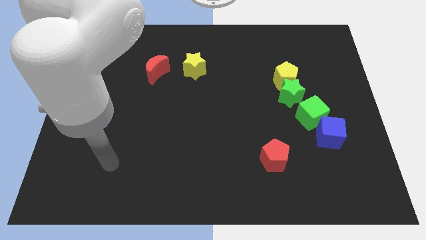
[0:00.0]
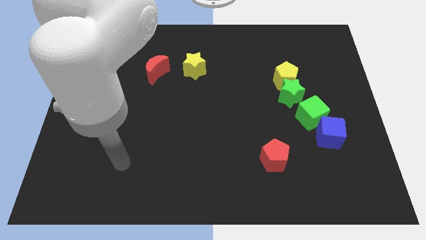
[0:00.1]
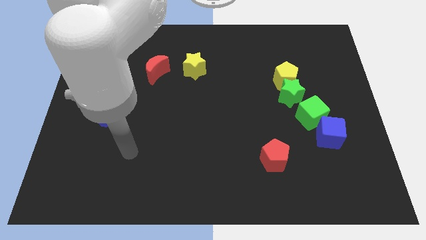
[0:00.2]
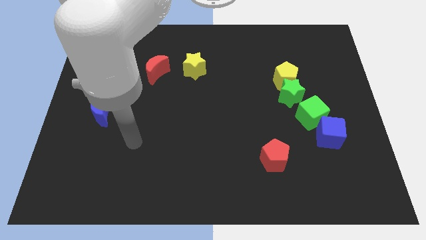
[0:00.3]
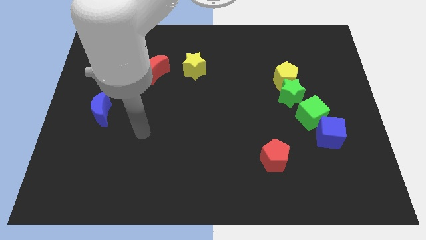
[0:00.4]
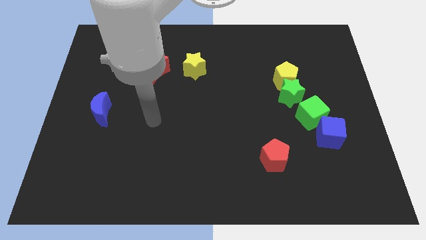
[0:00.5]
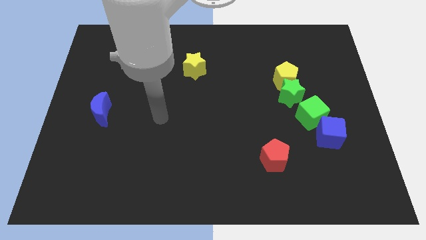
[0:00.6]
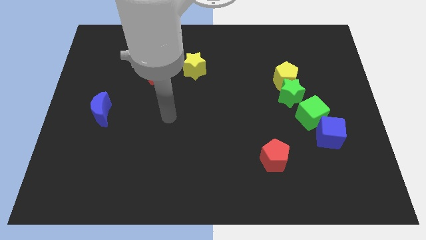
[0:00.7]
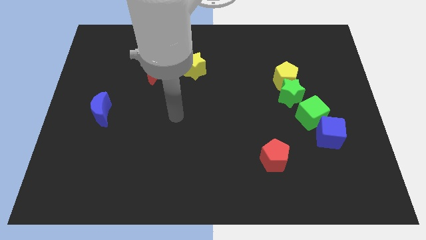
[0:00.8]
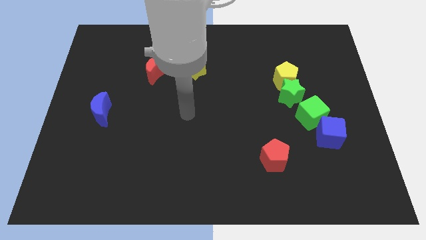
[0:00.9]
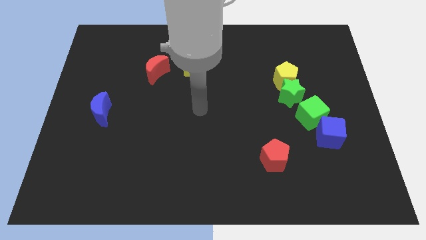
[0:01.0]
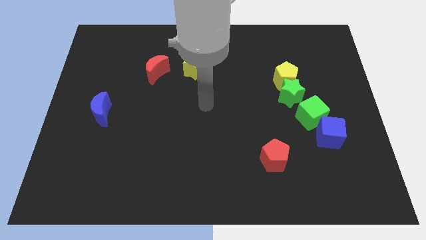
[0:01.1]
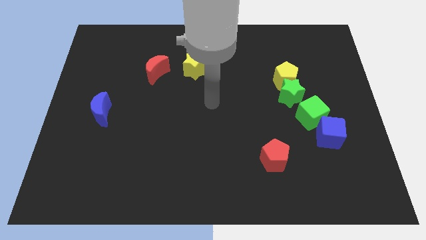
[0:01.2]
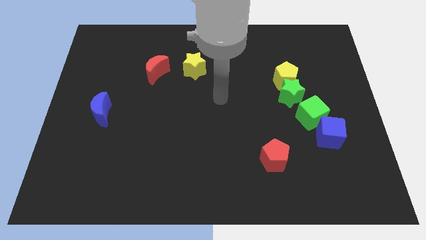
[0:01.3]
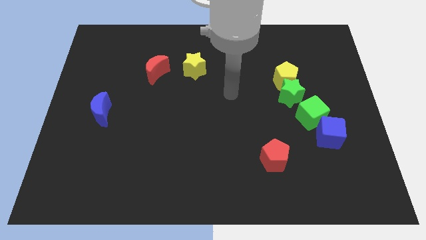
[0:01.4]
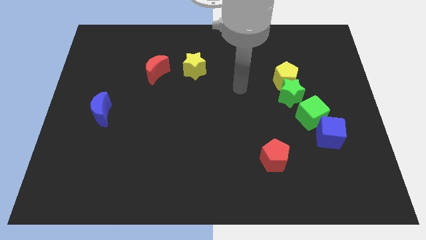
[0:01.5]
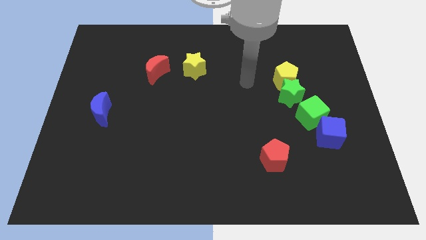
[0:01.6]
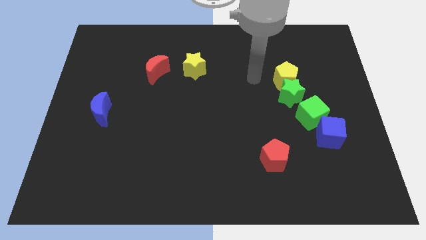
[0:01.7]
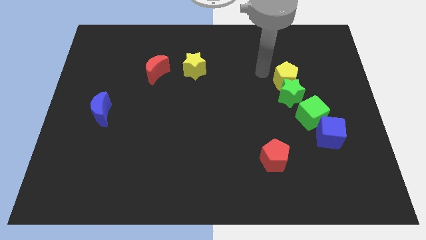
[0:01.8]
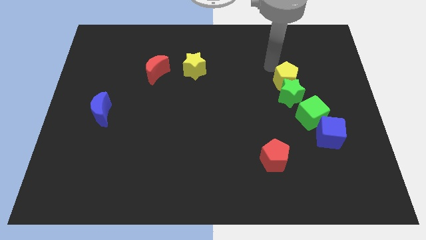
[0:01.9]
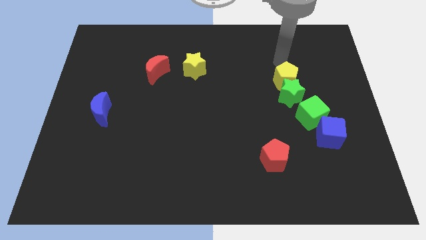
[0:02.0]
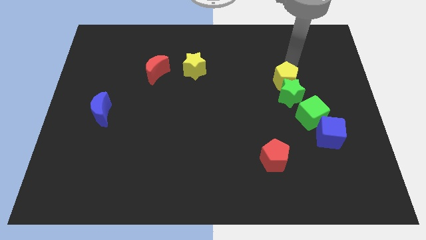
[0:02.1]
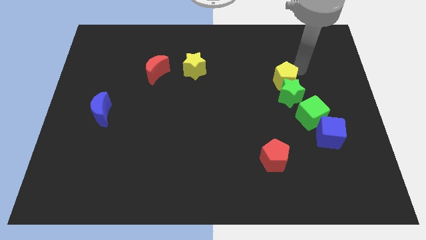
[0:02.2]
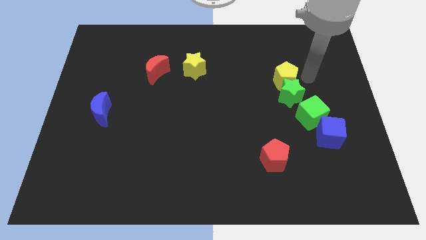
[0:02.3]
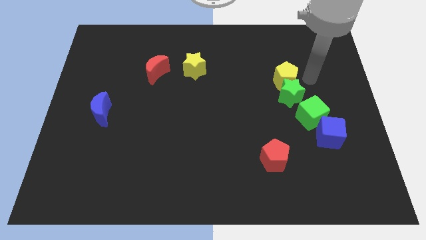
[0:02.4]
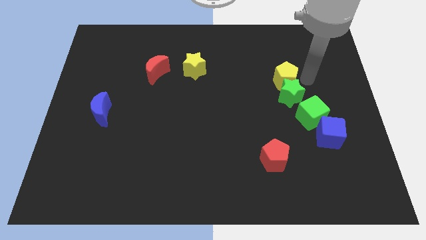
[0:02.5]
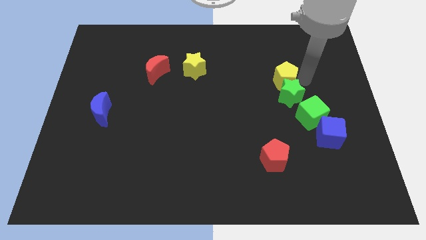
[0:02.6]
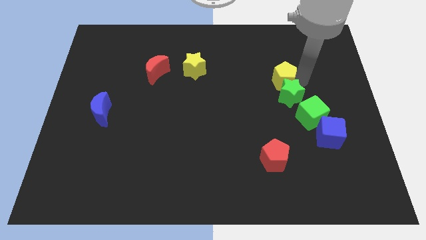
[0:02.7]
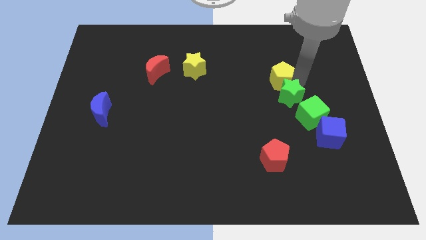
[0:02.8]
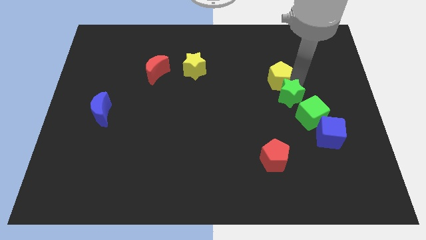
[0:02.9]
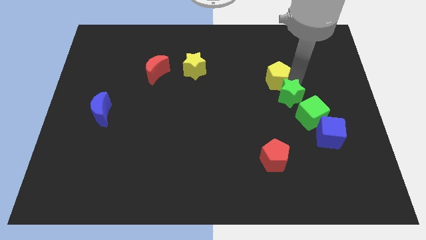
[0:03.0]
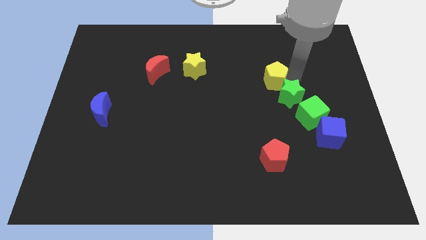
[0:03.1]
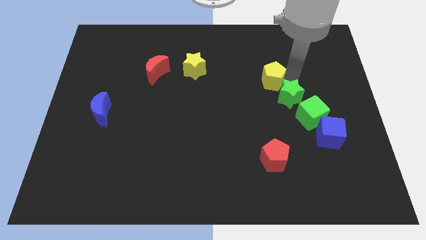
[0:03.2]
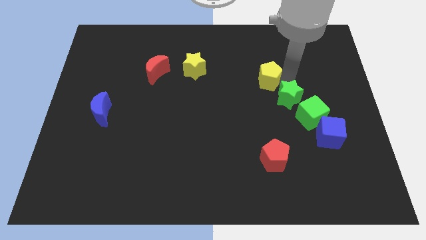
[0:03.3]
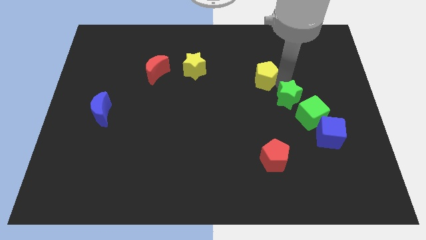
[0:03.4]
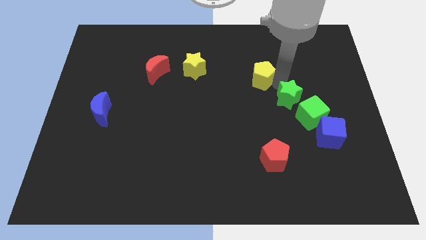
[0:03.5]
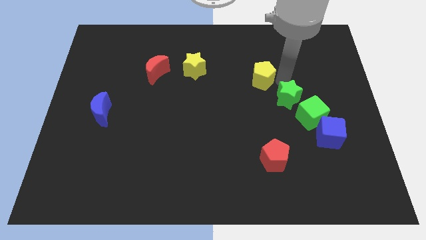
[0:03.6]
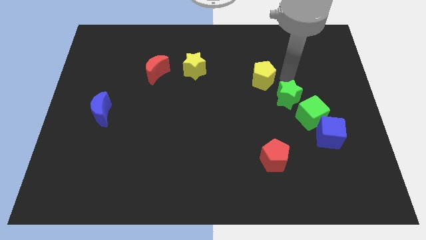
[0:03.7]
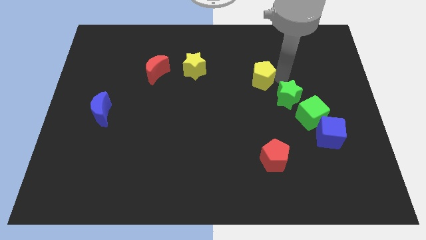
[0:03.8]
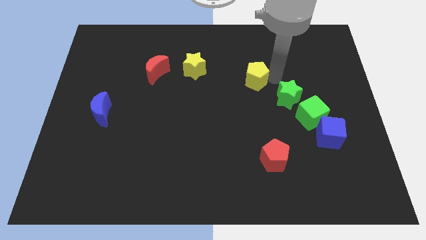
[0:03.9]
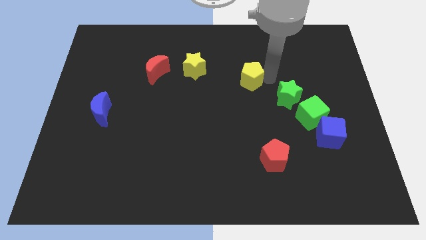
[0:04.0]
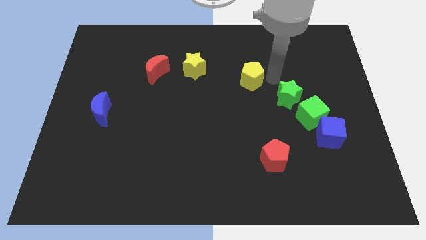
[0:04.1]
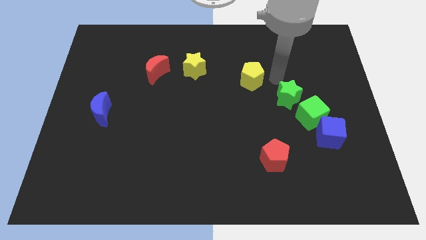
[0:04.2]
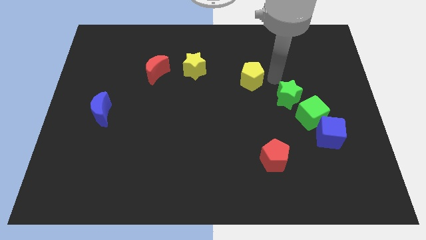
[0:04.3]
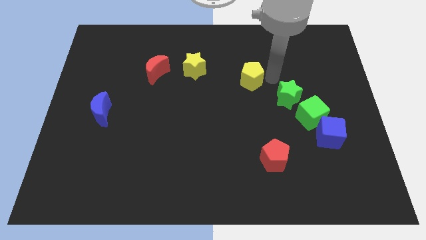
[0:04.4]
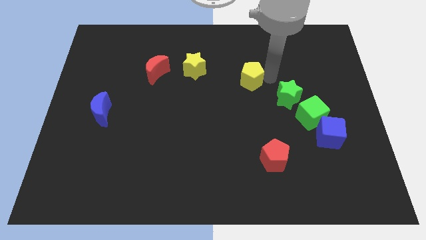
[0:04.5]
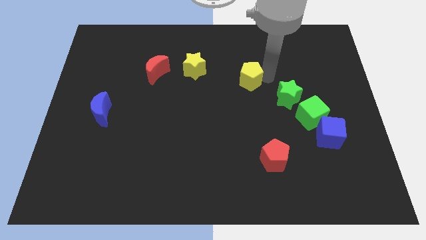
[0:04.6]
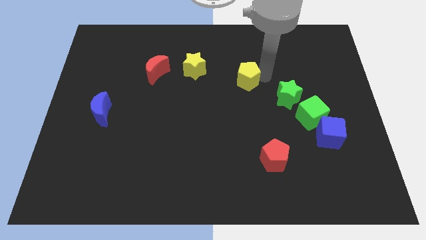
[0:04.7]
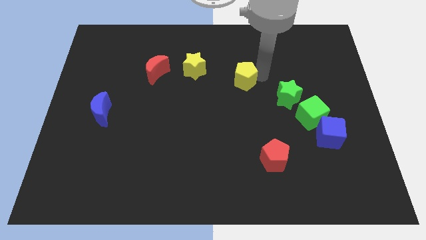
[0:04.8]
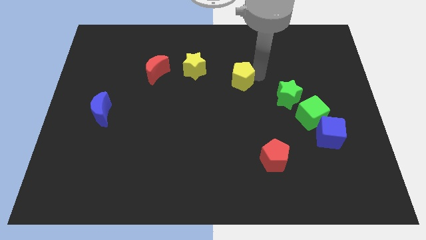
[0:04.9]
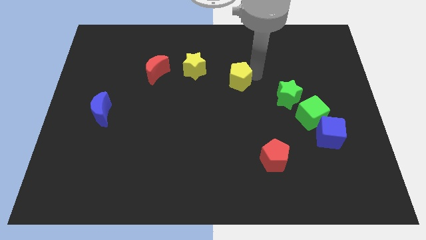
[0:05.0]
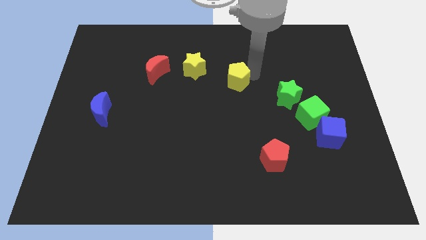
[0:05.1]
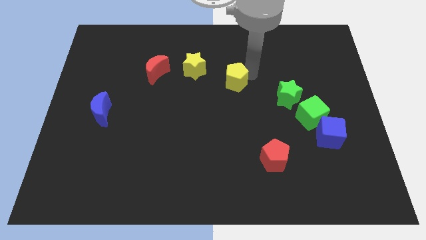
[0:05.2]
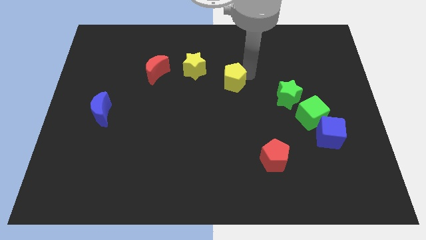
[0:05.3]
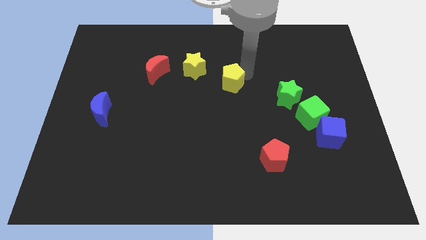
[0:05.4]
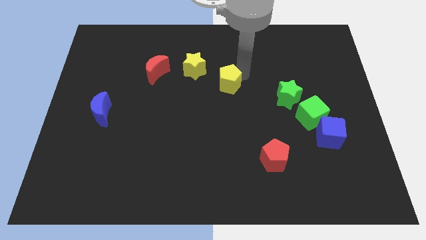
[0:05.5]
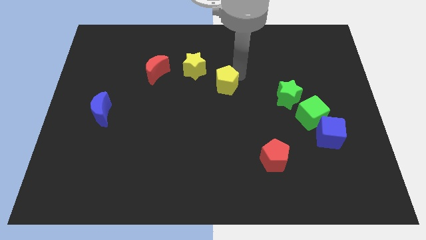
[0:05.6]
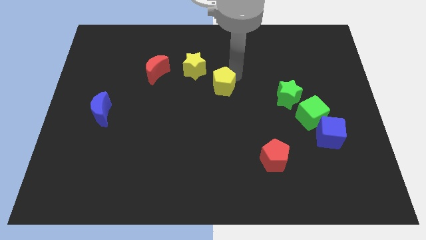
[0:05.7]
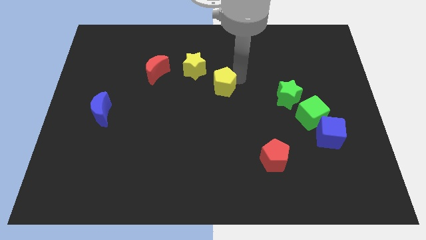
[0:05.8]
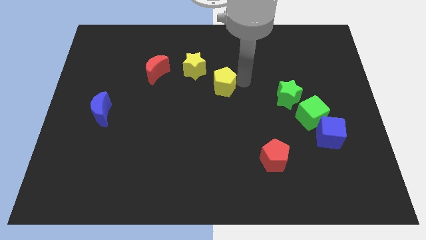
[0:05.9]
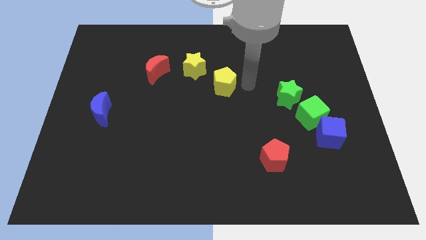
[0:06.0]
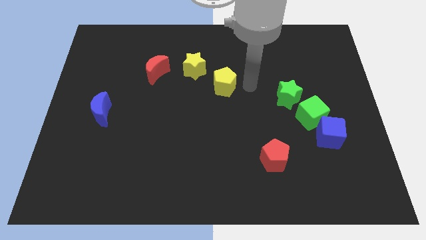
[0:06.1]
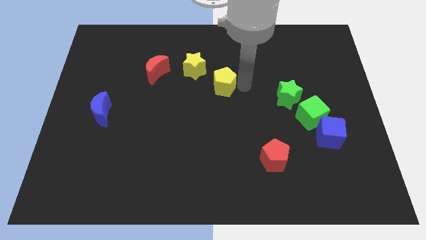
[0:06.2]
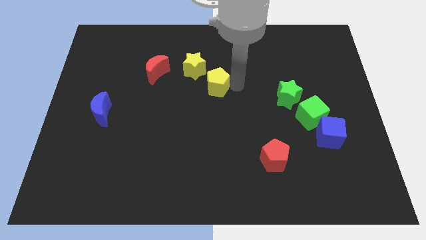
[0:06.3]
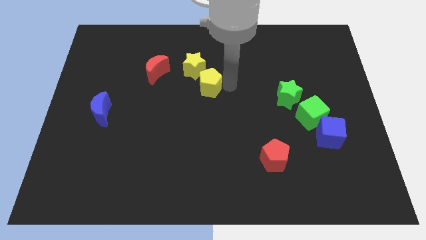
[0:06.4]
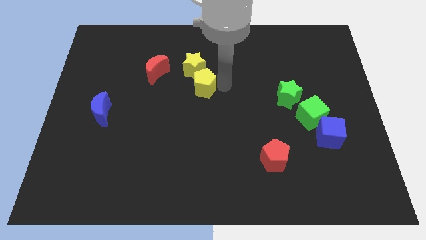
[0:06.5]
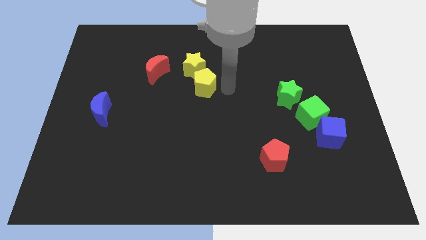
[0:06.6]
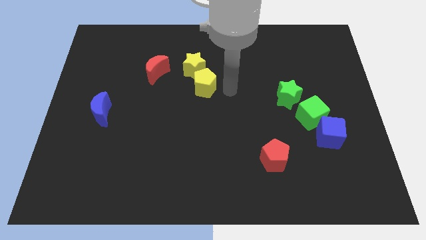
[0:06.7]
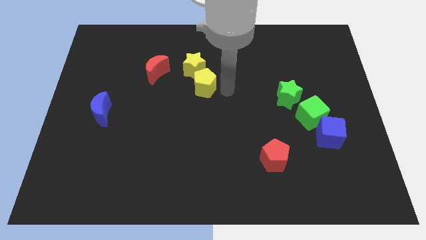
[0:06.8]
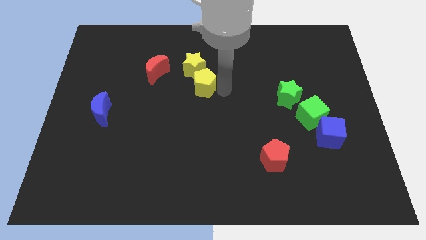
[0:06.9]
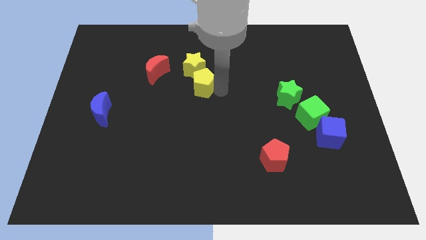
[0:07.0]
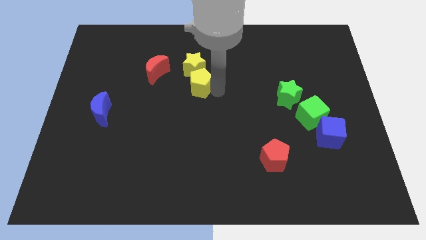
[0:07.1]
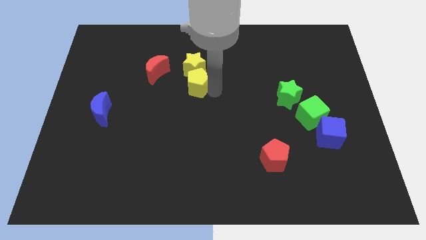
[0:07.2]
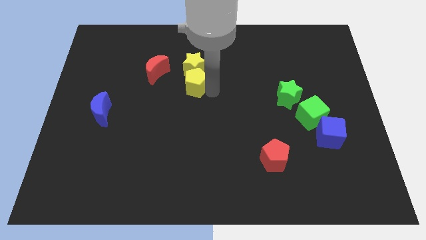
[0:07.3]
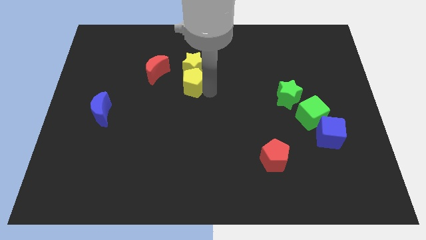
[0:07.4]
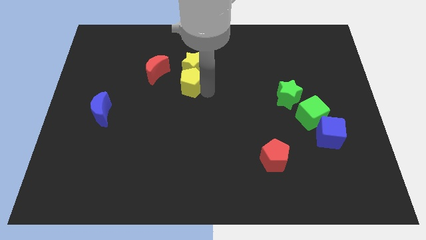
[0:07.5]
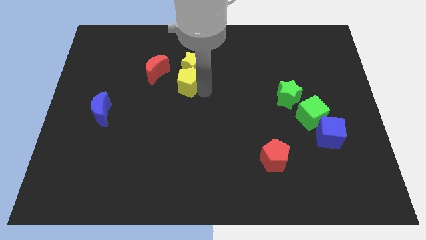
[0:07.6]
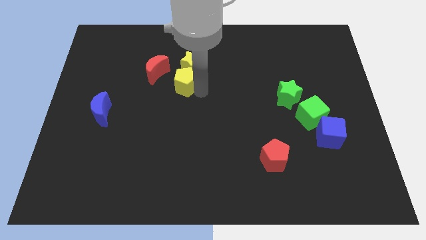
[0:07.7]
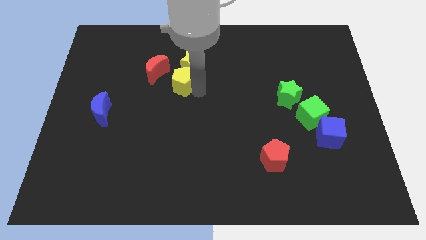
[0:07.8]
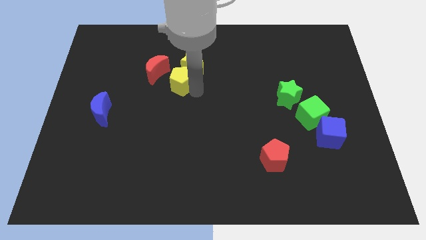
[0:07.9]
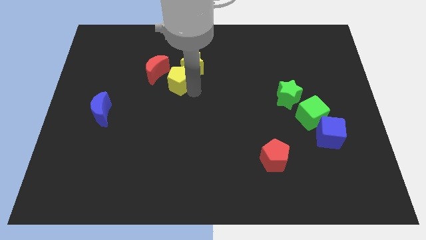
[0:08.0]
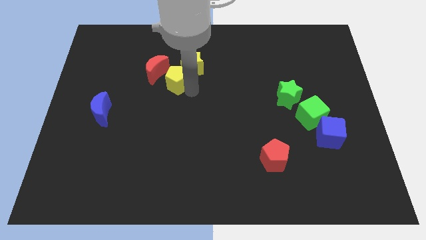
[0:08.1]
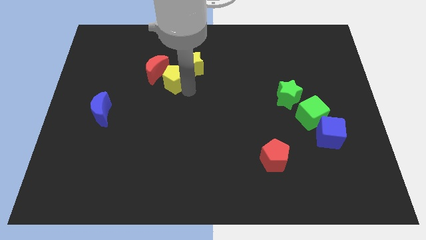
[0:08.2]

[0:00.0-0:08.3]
push the yellow pentagon towards the red moon
